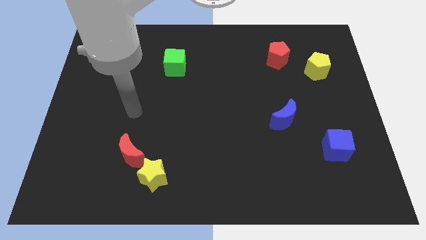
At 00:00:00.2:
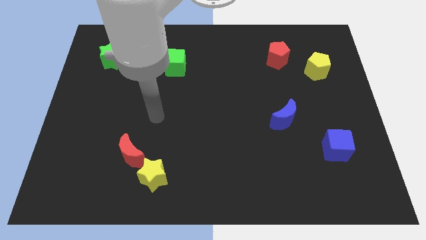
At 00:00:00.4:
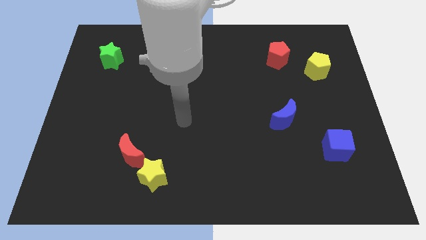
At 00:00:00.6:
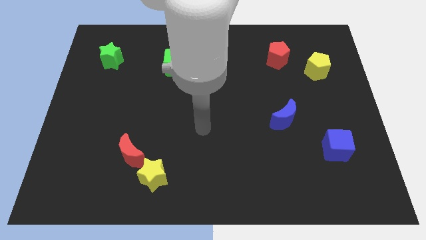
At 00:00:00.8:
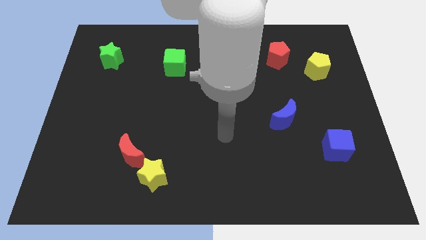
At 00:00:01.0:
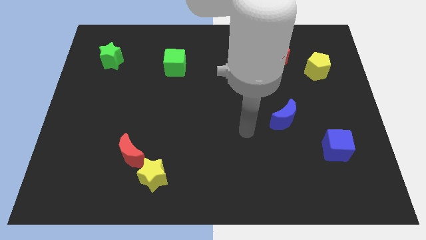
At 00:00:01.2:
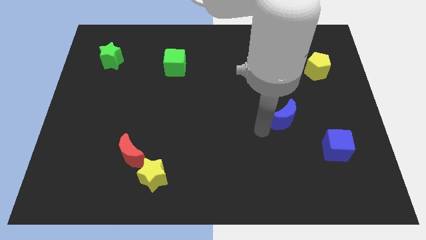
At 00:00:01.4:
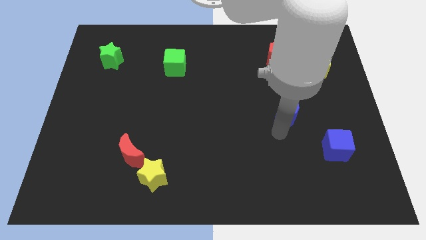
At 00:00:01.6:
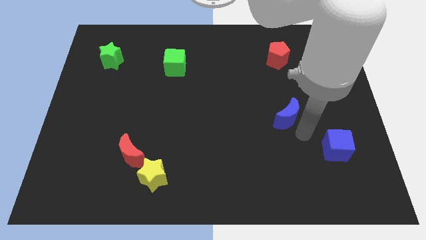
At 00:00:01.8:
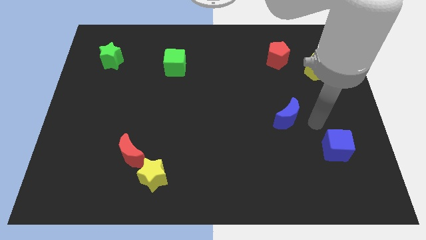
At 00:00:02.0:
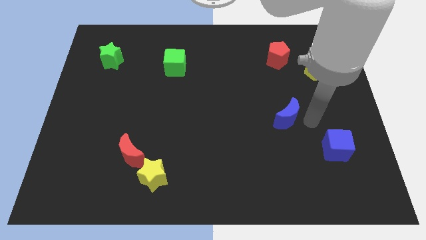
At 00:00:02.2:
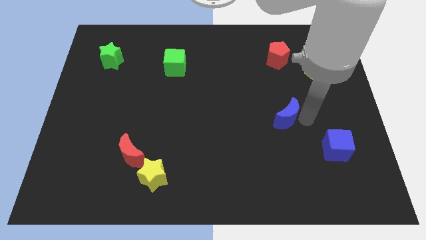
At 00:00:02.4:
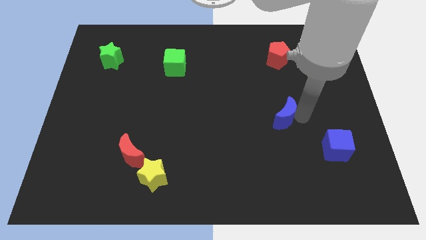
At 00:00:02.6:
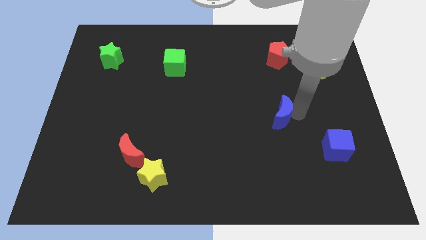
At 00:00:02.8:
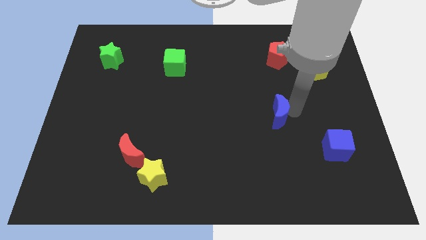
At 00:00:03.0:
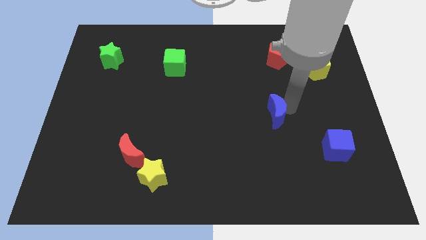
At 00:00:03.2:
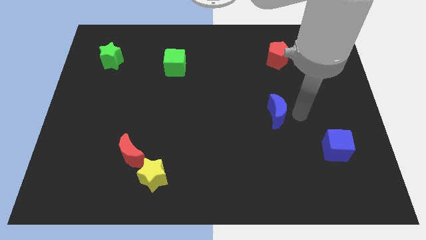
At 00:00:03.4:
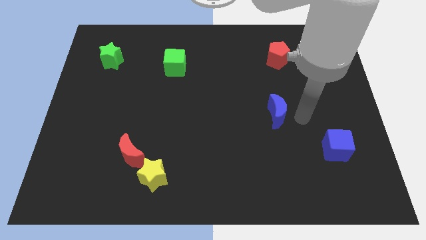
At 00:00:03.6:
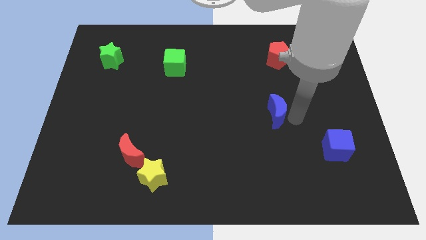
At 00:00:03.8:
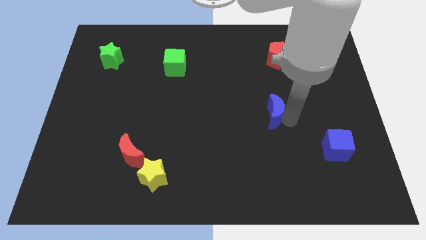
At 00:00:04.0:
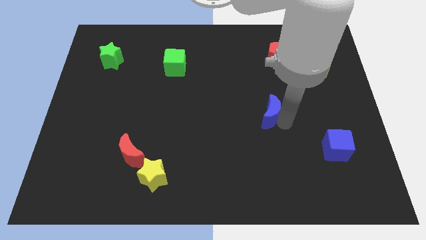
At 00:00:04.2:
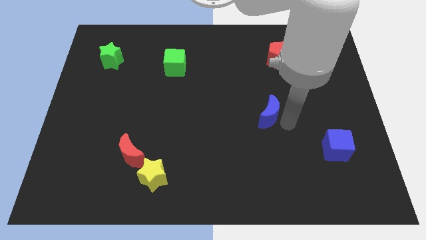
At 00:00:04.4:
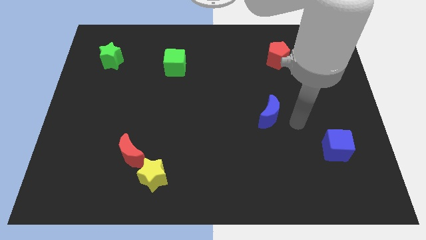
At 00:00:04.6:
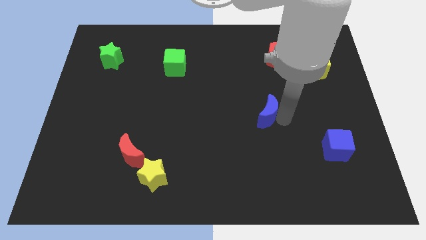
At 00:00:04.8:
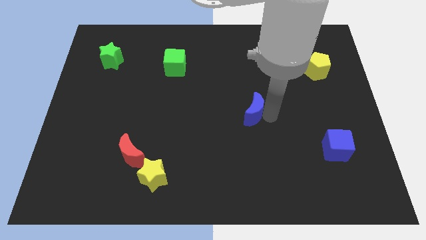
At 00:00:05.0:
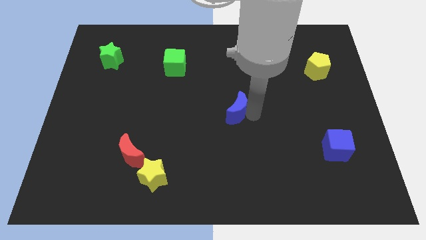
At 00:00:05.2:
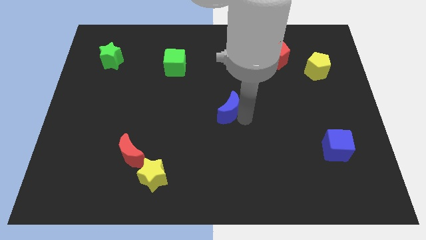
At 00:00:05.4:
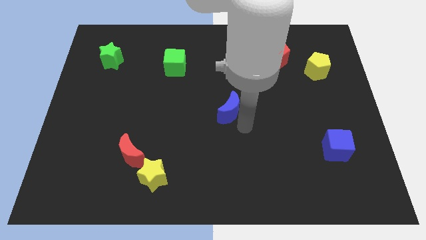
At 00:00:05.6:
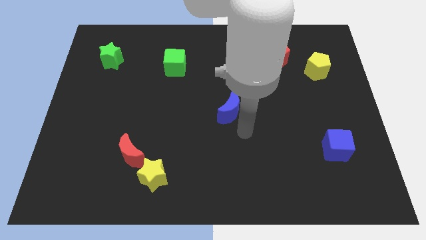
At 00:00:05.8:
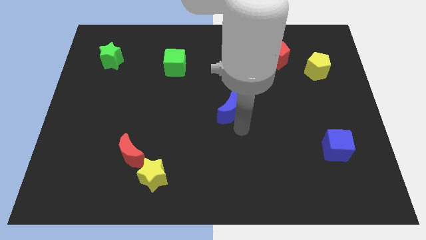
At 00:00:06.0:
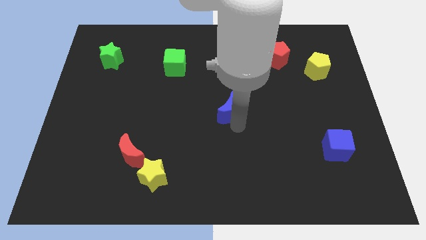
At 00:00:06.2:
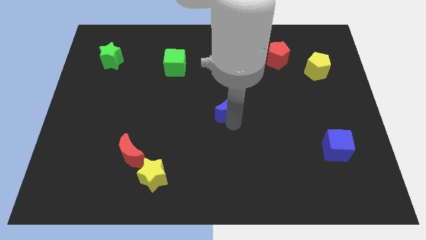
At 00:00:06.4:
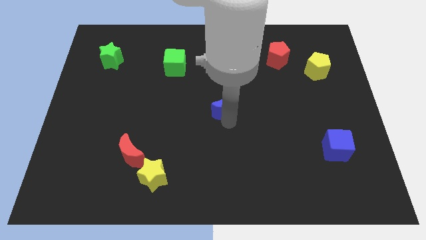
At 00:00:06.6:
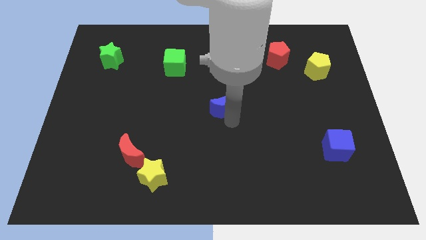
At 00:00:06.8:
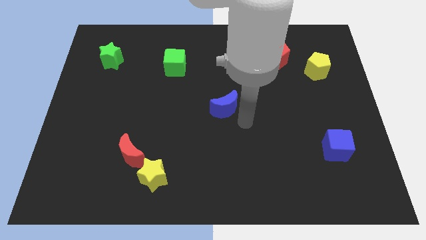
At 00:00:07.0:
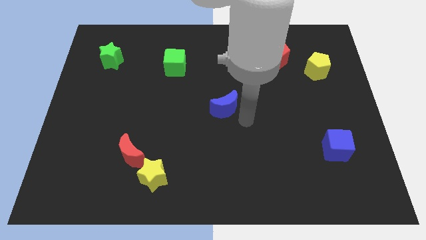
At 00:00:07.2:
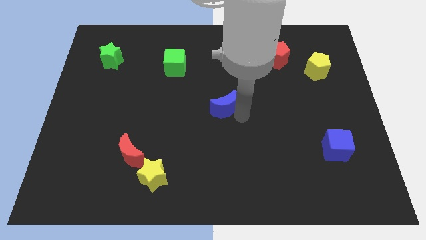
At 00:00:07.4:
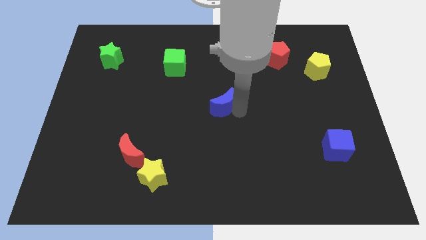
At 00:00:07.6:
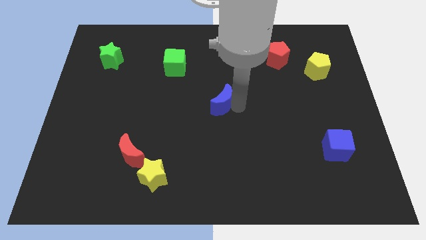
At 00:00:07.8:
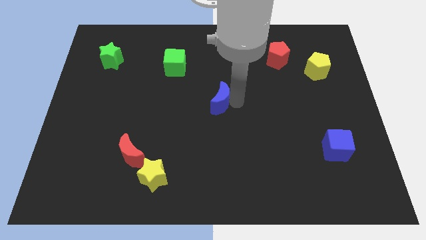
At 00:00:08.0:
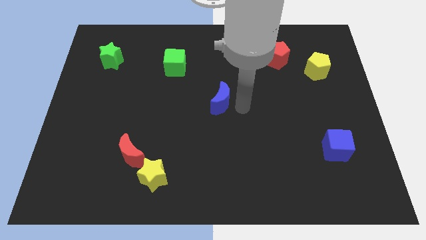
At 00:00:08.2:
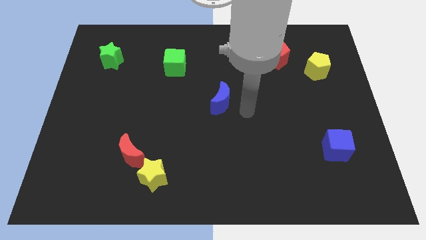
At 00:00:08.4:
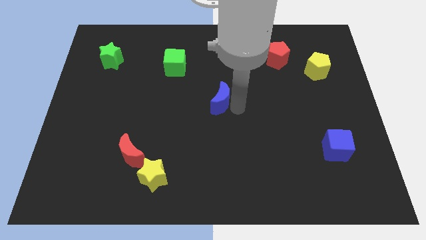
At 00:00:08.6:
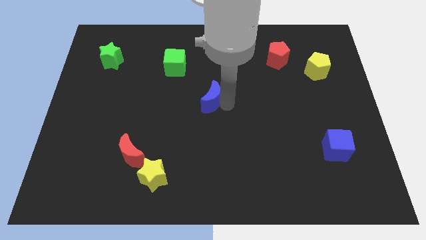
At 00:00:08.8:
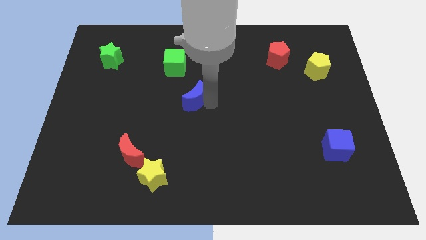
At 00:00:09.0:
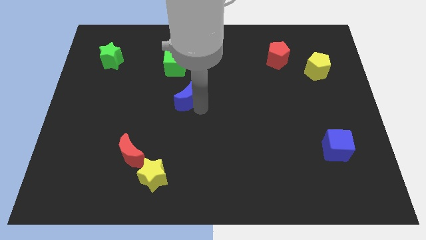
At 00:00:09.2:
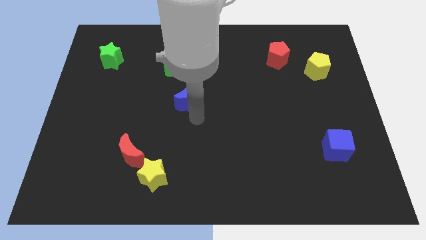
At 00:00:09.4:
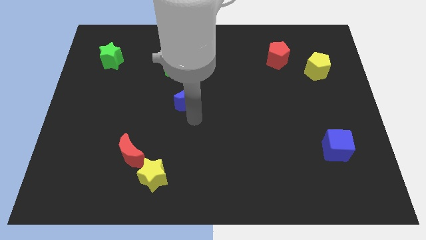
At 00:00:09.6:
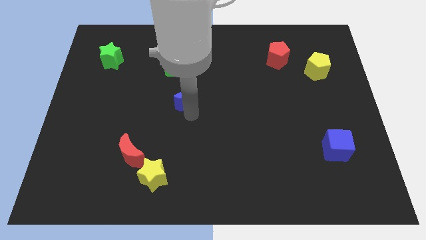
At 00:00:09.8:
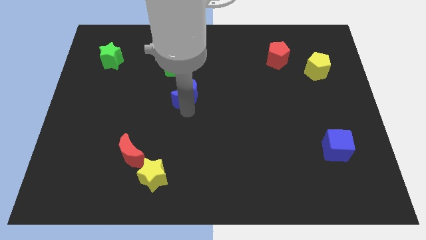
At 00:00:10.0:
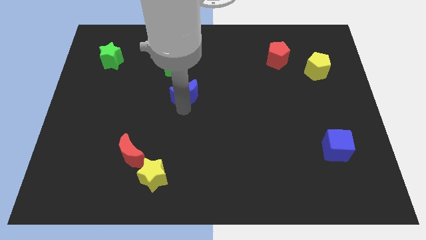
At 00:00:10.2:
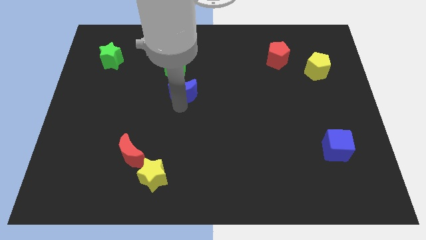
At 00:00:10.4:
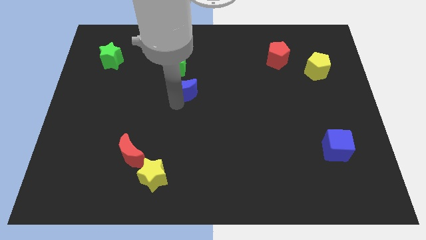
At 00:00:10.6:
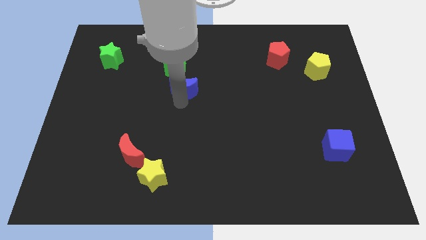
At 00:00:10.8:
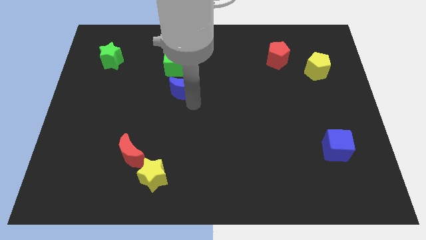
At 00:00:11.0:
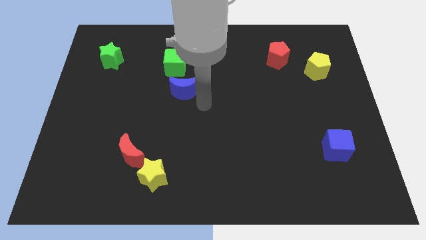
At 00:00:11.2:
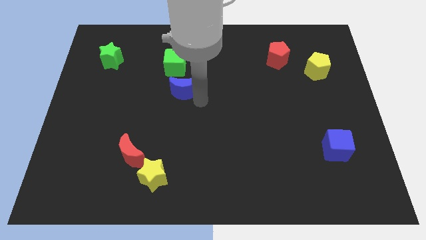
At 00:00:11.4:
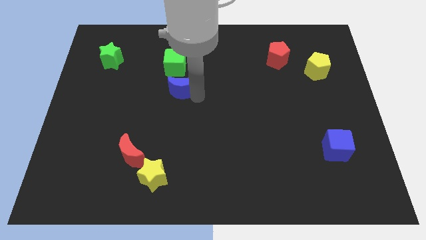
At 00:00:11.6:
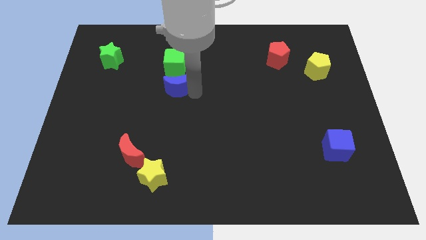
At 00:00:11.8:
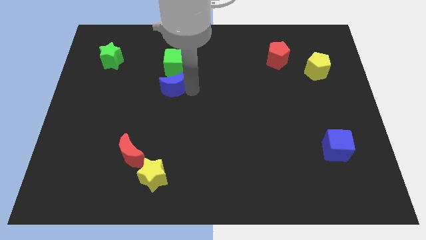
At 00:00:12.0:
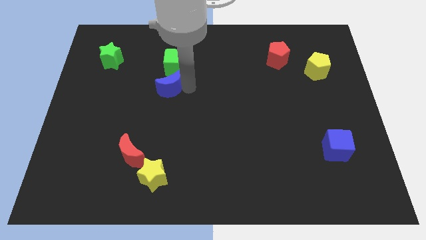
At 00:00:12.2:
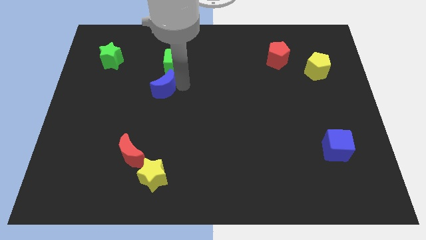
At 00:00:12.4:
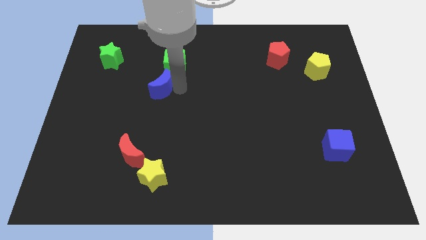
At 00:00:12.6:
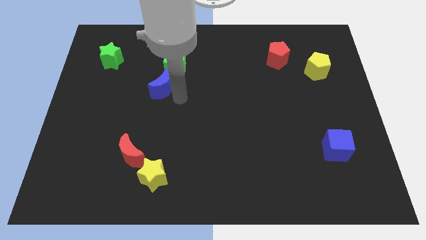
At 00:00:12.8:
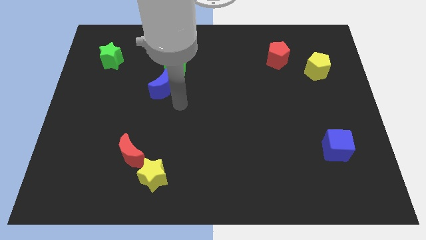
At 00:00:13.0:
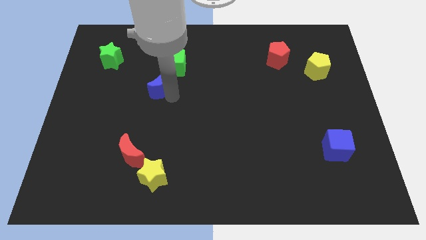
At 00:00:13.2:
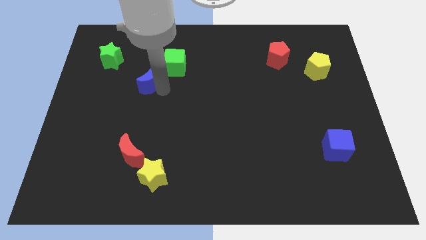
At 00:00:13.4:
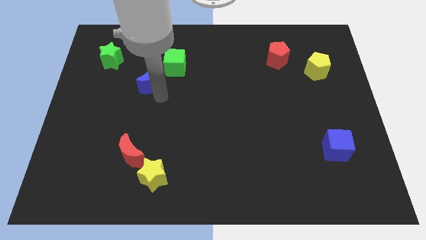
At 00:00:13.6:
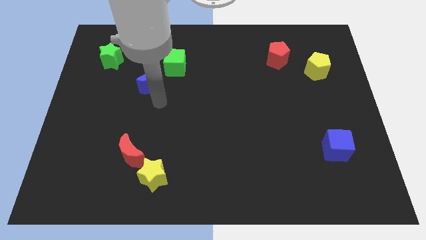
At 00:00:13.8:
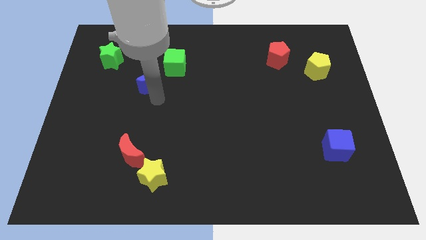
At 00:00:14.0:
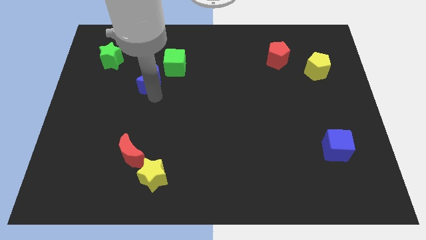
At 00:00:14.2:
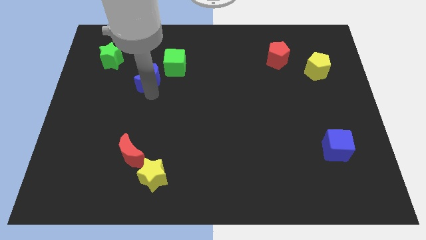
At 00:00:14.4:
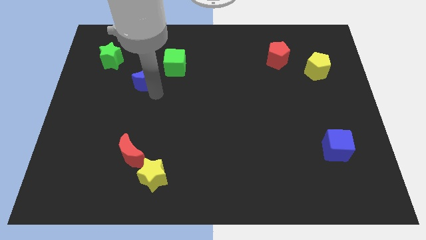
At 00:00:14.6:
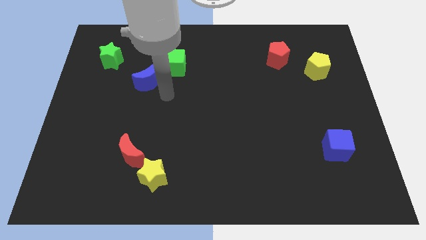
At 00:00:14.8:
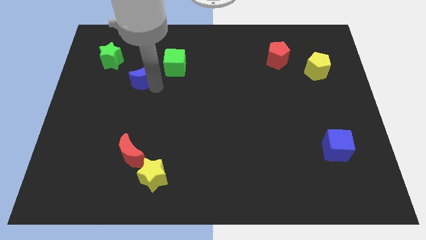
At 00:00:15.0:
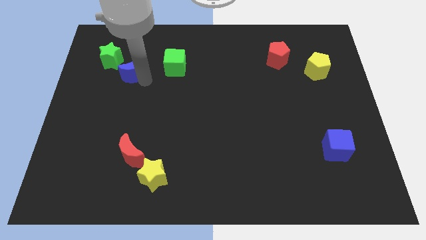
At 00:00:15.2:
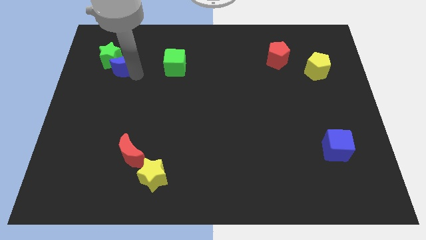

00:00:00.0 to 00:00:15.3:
move the blue moon towards the green star

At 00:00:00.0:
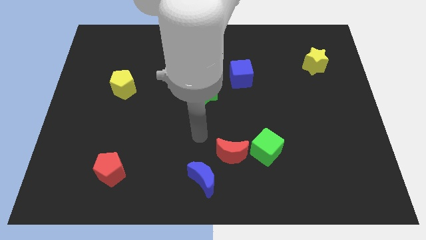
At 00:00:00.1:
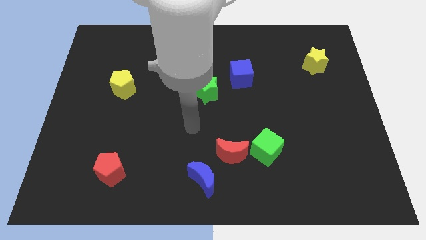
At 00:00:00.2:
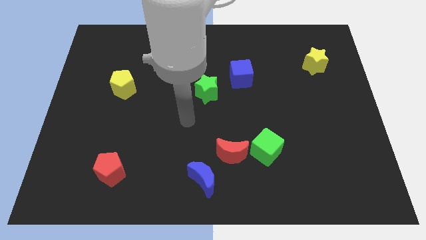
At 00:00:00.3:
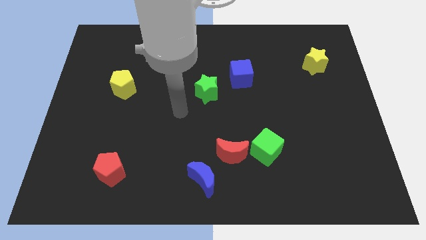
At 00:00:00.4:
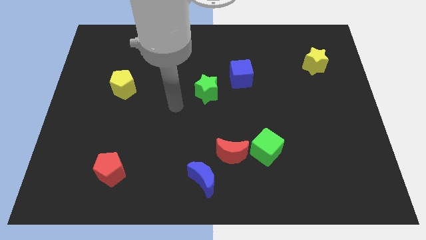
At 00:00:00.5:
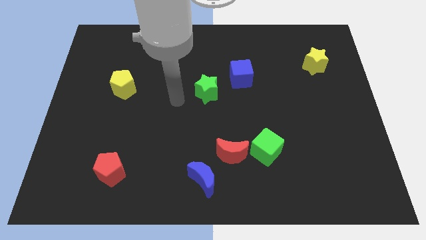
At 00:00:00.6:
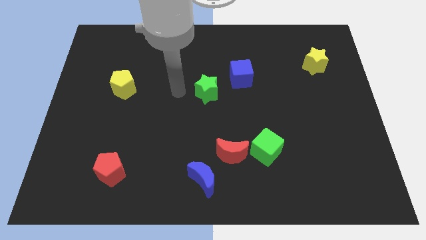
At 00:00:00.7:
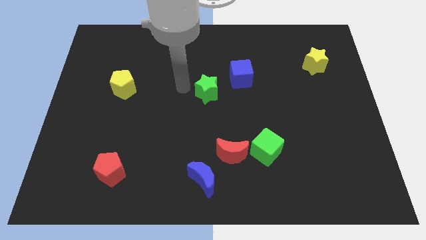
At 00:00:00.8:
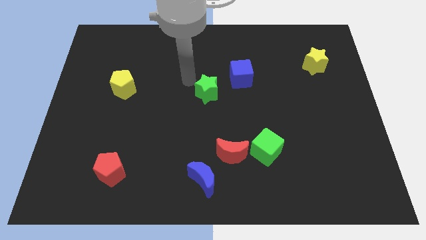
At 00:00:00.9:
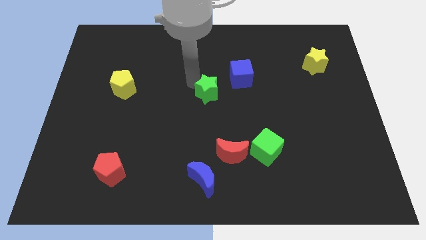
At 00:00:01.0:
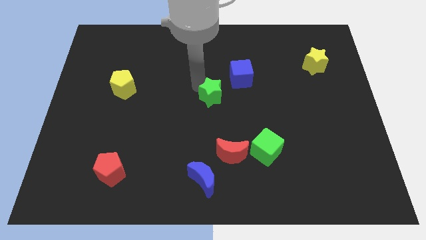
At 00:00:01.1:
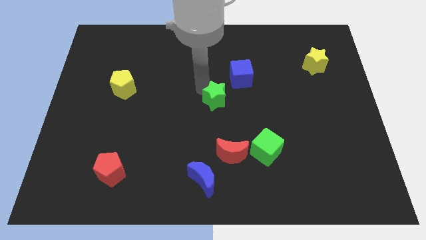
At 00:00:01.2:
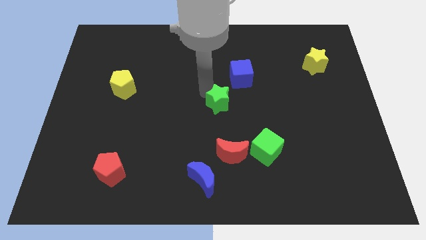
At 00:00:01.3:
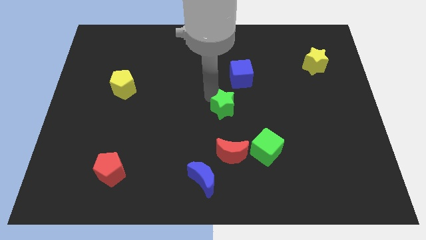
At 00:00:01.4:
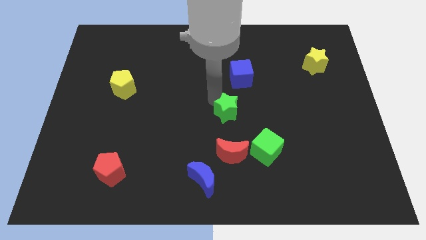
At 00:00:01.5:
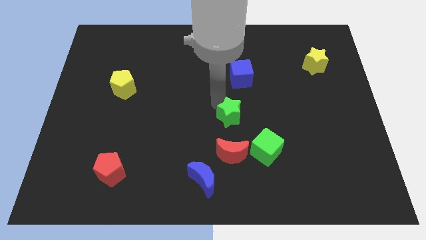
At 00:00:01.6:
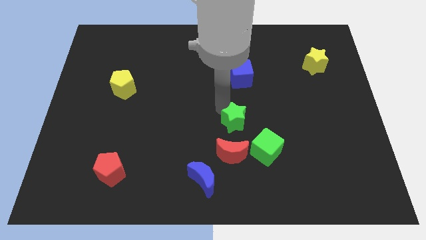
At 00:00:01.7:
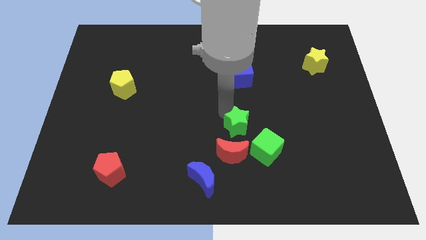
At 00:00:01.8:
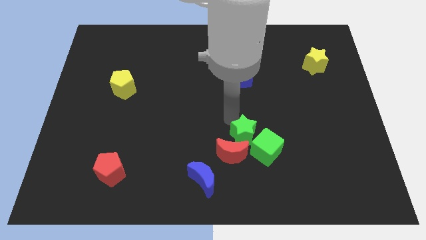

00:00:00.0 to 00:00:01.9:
move the green star close to the green cube
